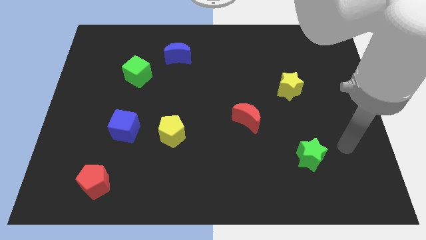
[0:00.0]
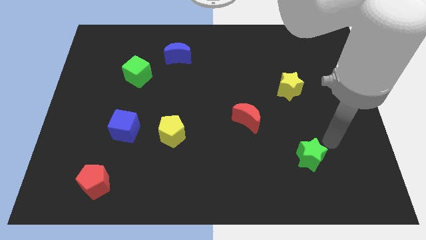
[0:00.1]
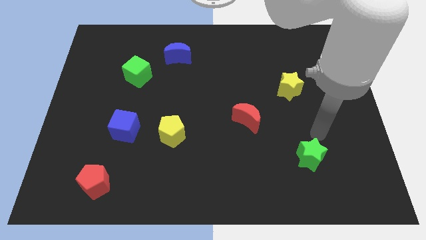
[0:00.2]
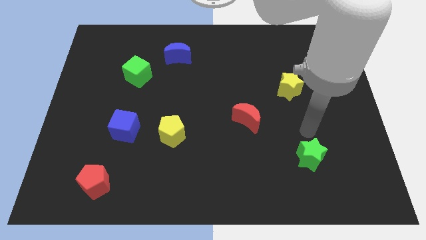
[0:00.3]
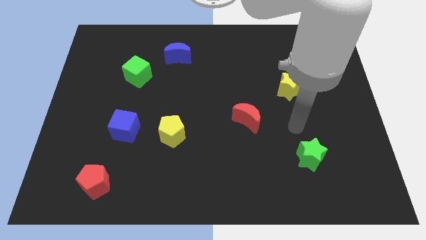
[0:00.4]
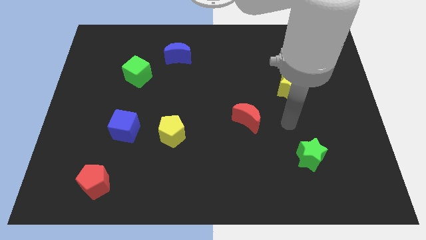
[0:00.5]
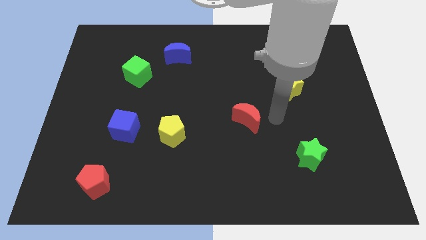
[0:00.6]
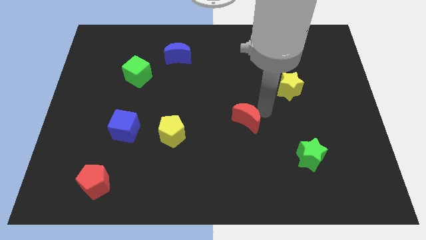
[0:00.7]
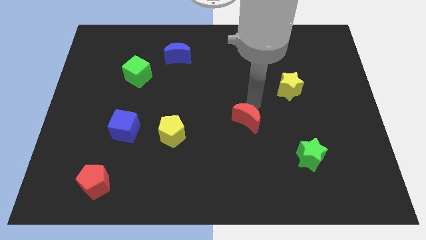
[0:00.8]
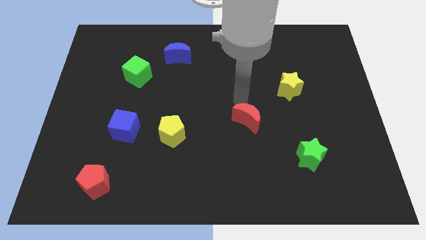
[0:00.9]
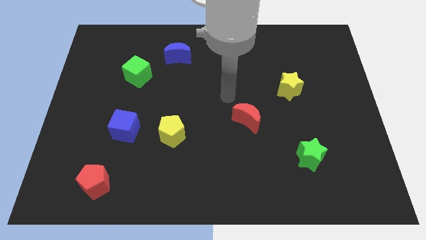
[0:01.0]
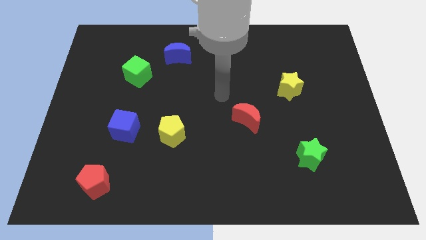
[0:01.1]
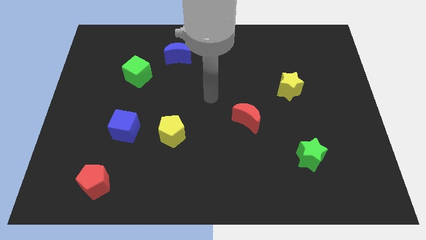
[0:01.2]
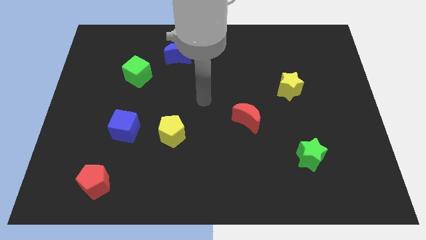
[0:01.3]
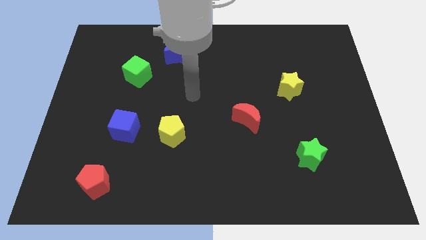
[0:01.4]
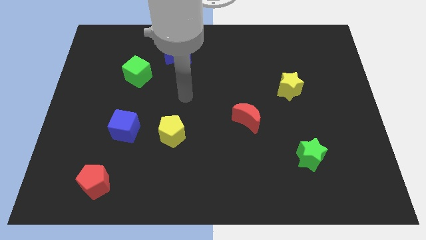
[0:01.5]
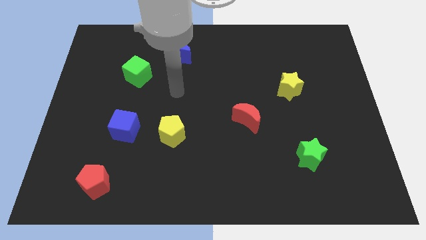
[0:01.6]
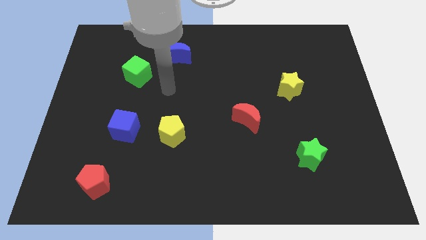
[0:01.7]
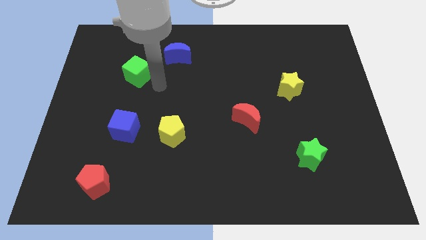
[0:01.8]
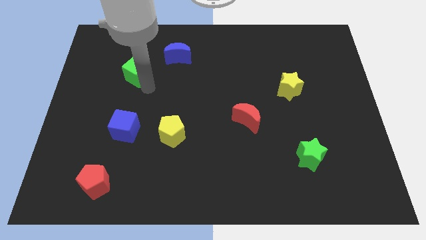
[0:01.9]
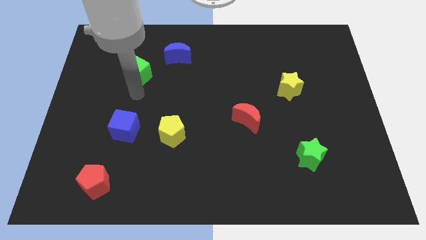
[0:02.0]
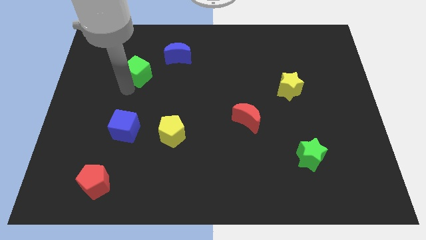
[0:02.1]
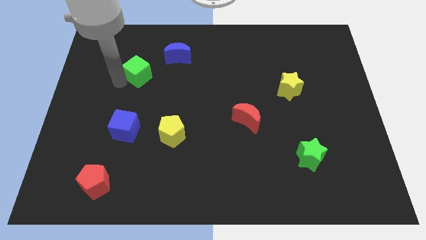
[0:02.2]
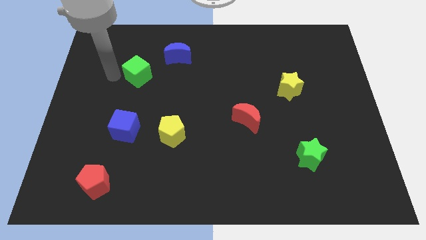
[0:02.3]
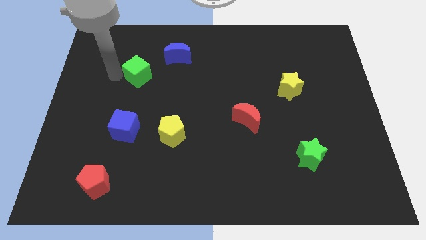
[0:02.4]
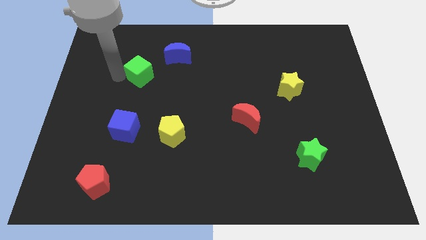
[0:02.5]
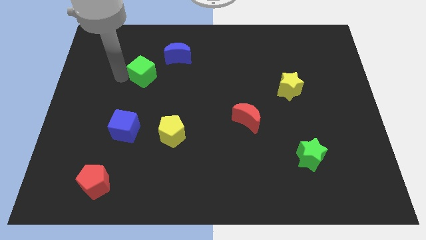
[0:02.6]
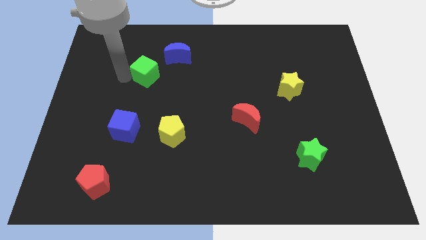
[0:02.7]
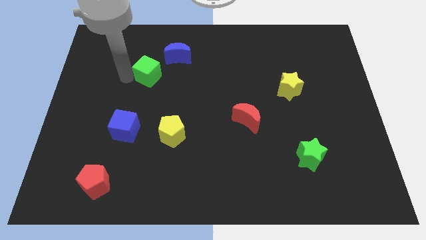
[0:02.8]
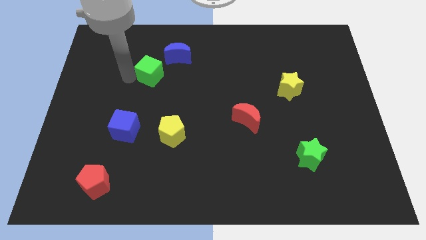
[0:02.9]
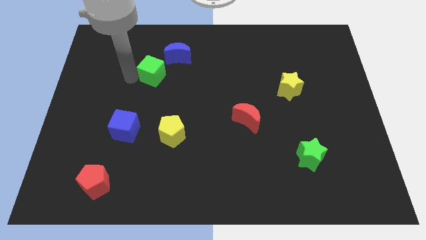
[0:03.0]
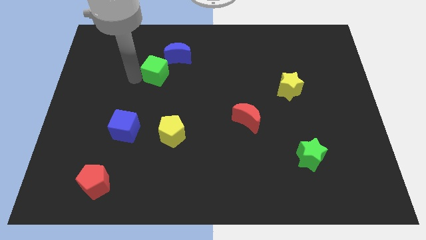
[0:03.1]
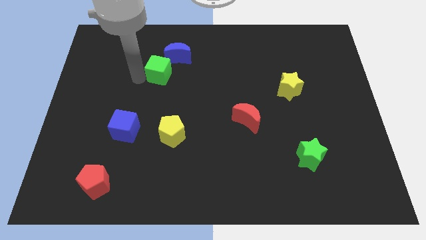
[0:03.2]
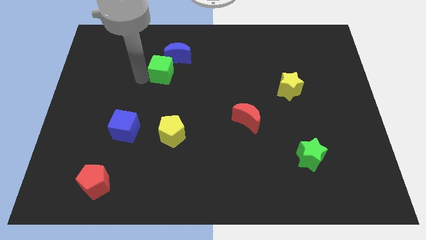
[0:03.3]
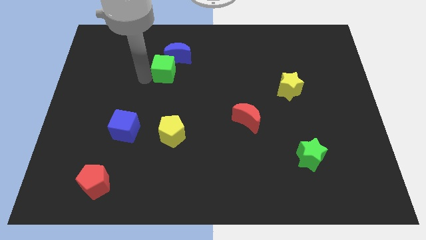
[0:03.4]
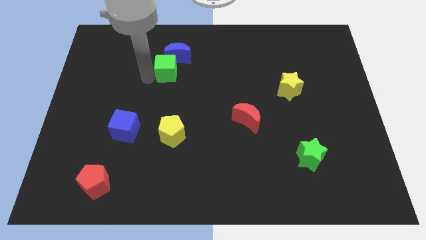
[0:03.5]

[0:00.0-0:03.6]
push the green cube right a little

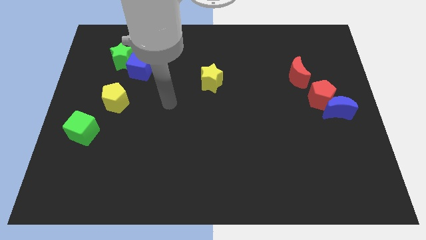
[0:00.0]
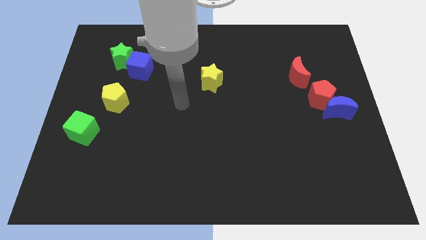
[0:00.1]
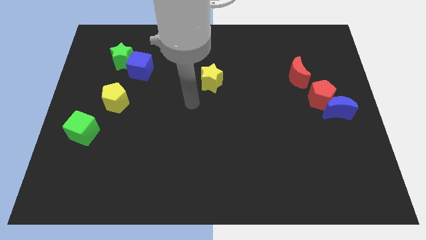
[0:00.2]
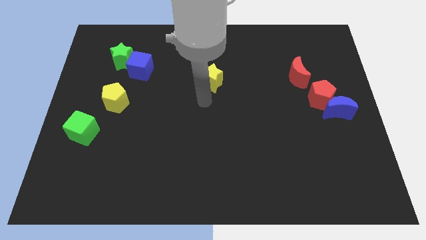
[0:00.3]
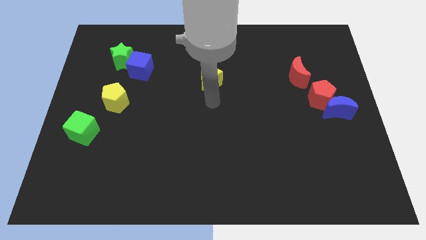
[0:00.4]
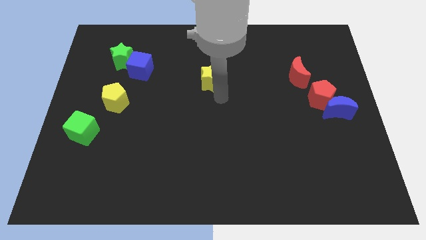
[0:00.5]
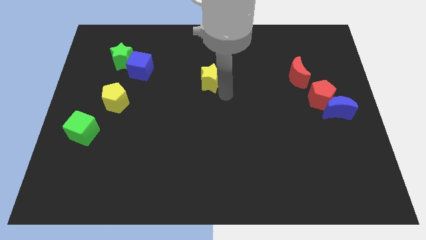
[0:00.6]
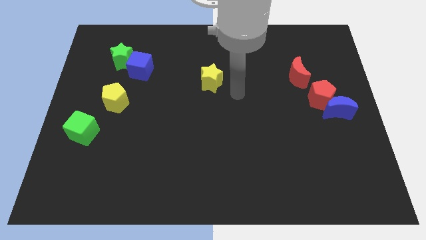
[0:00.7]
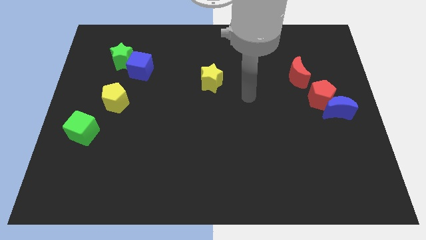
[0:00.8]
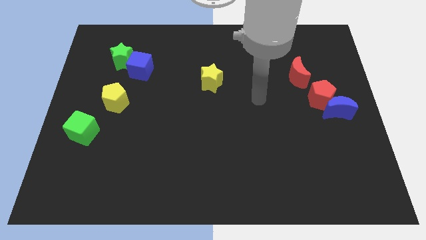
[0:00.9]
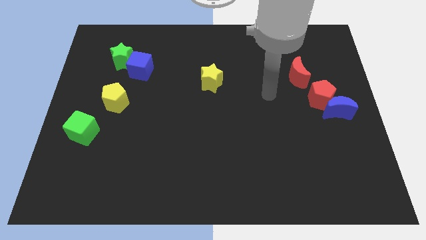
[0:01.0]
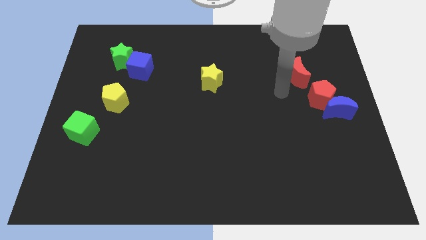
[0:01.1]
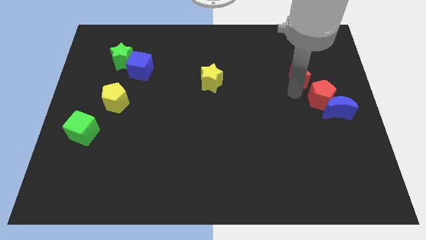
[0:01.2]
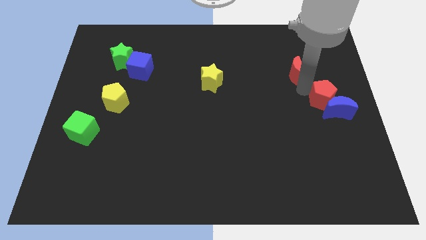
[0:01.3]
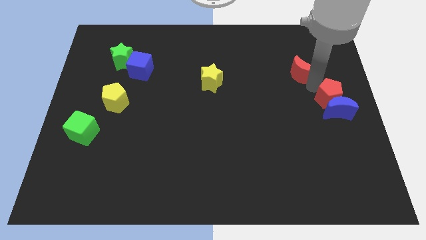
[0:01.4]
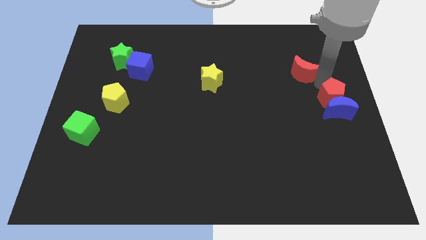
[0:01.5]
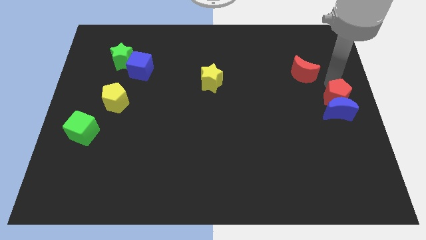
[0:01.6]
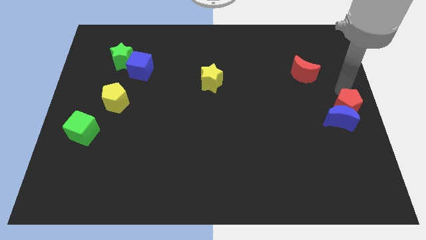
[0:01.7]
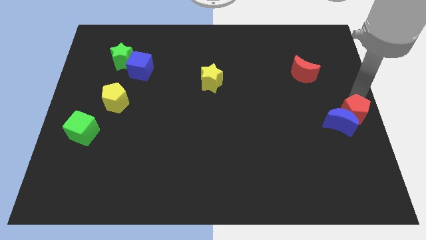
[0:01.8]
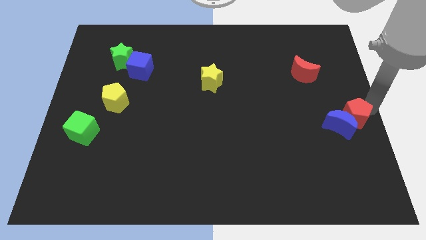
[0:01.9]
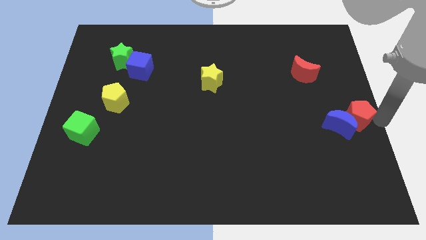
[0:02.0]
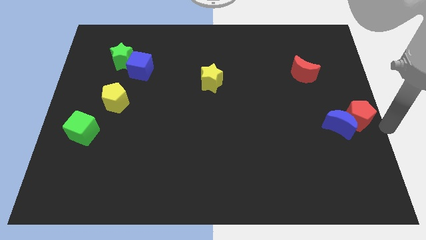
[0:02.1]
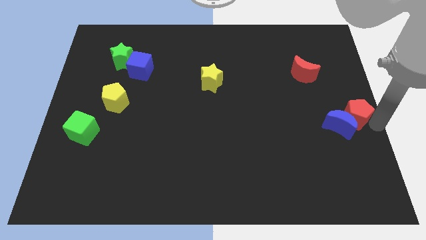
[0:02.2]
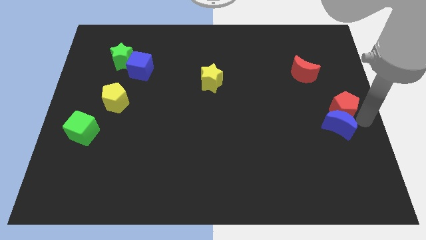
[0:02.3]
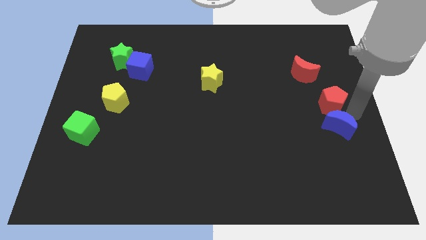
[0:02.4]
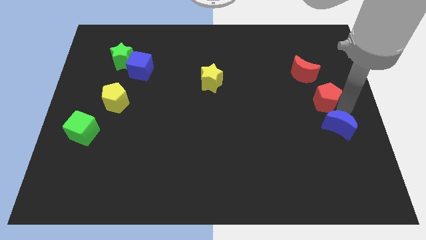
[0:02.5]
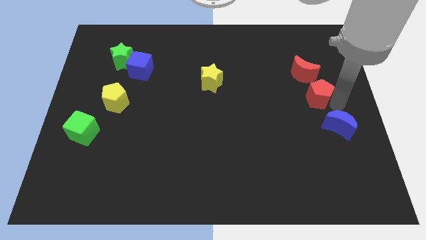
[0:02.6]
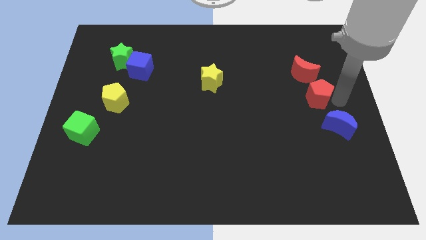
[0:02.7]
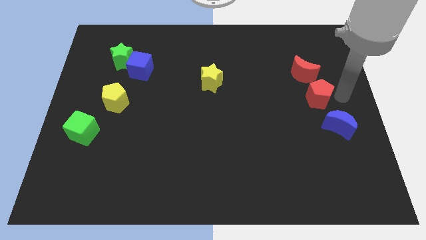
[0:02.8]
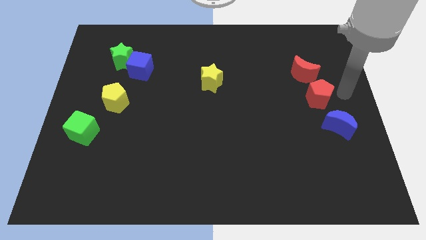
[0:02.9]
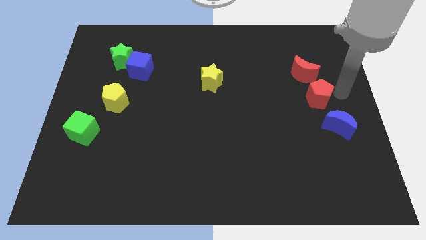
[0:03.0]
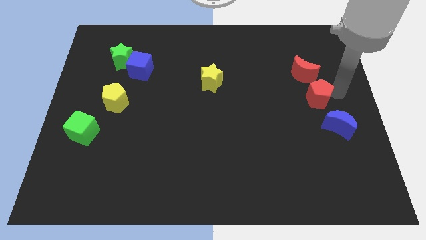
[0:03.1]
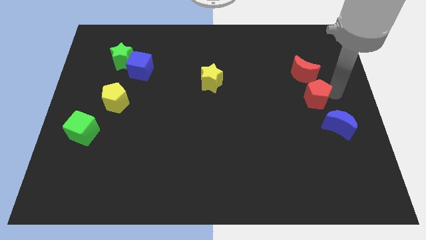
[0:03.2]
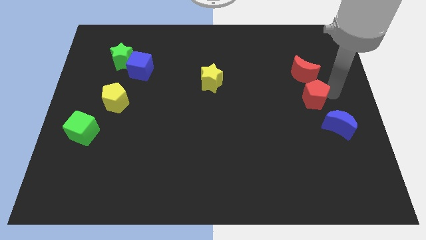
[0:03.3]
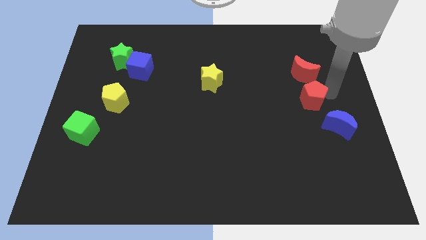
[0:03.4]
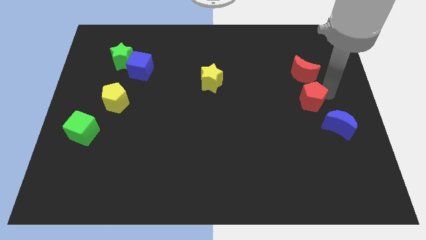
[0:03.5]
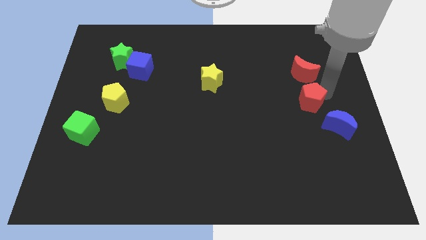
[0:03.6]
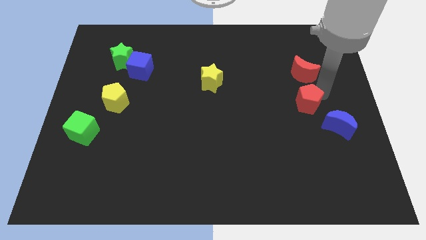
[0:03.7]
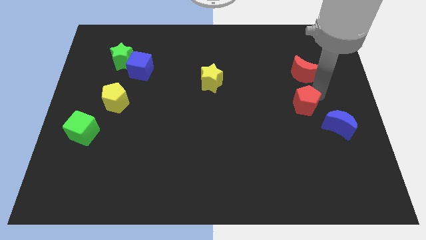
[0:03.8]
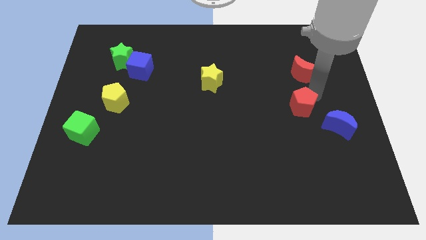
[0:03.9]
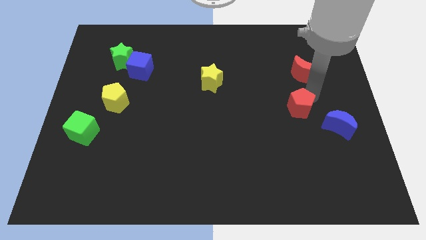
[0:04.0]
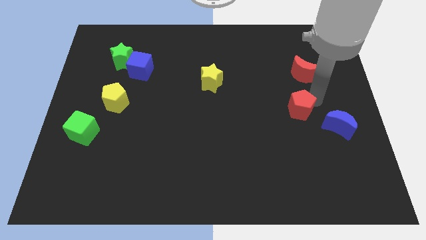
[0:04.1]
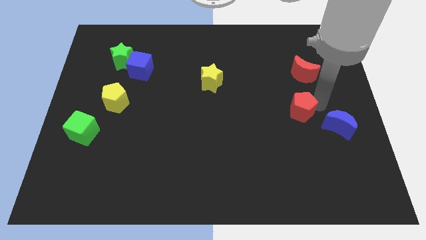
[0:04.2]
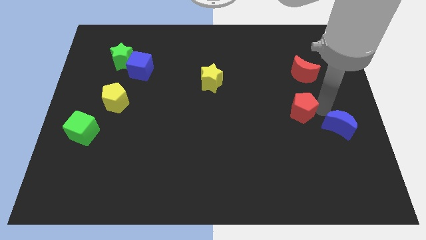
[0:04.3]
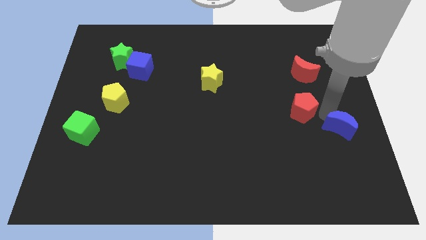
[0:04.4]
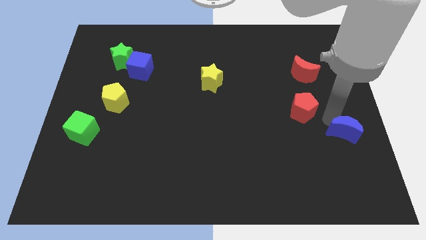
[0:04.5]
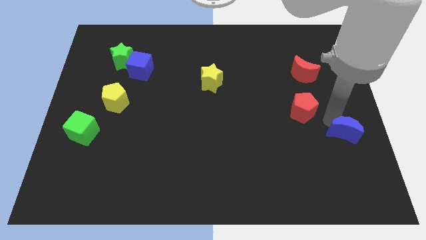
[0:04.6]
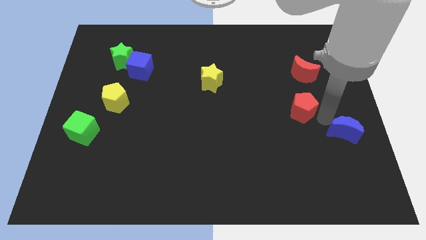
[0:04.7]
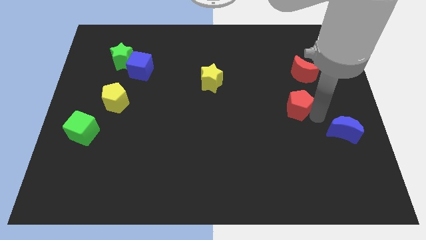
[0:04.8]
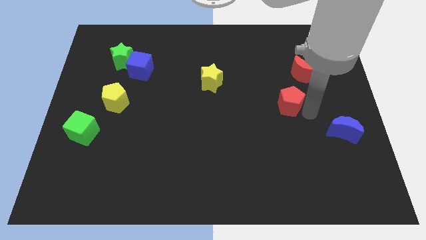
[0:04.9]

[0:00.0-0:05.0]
move the red pentagon left somewhat

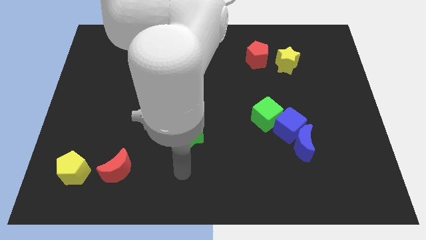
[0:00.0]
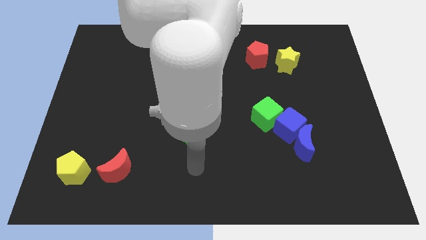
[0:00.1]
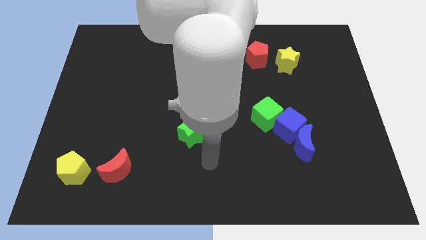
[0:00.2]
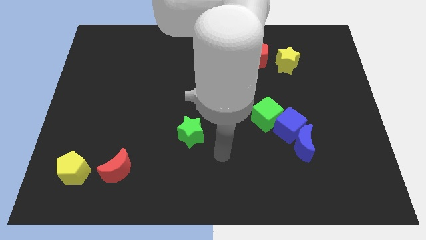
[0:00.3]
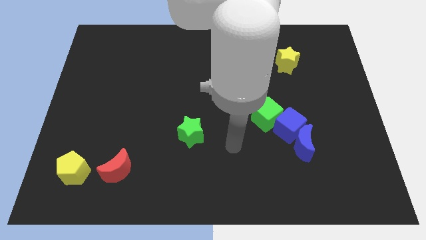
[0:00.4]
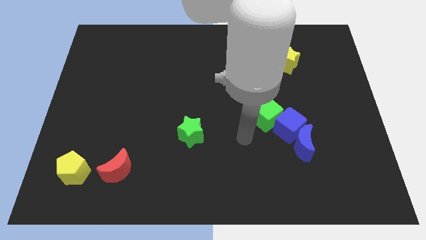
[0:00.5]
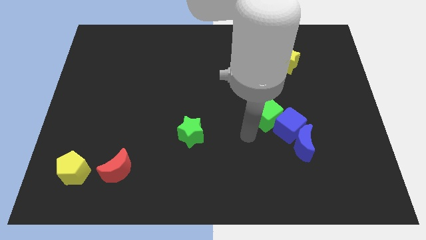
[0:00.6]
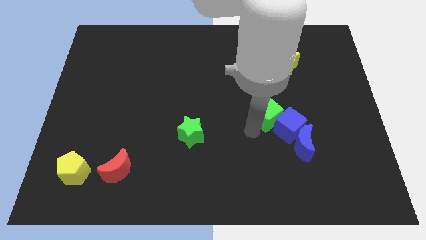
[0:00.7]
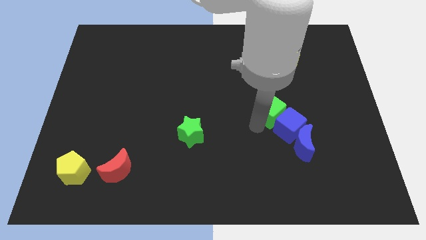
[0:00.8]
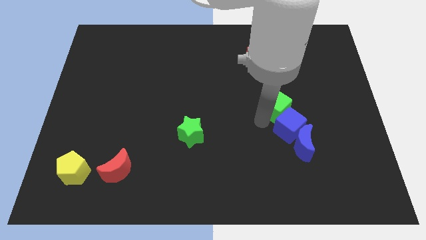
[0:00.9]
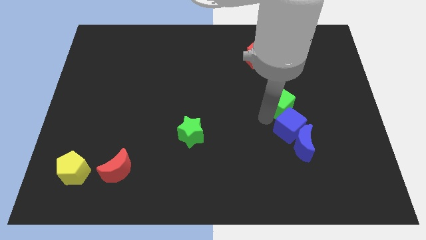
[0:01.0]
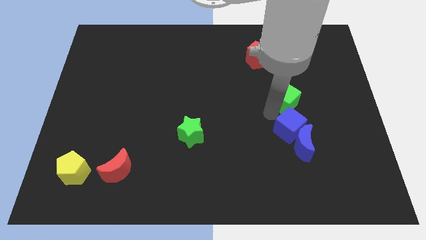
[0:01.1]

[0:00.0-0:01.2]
move the green cube slightly upwards and right
